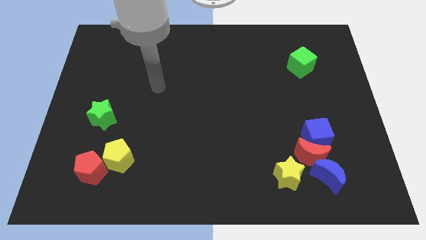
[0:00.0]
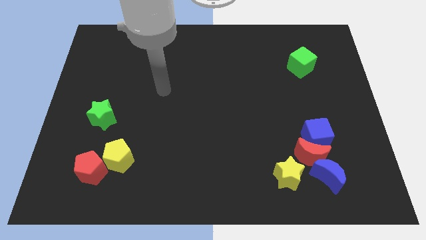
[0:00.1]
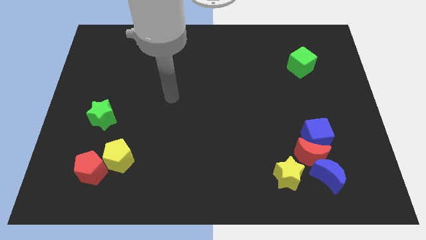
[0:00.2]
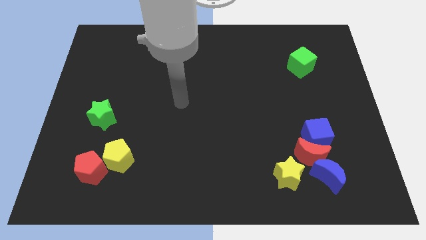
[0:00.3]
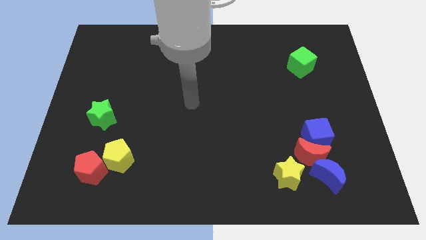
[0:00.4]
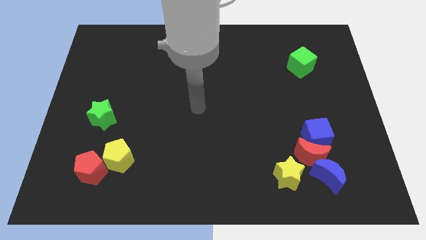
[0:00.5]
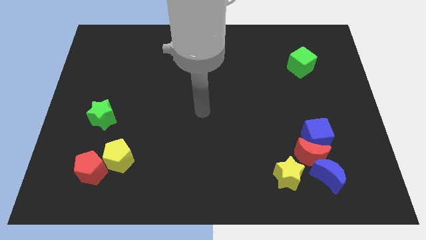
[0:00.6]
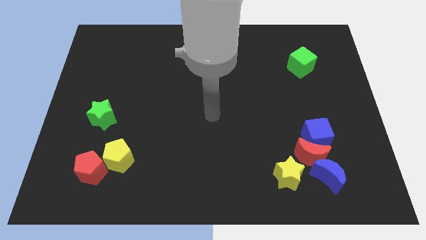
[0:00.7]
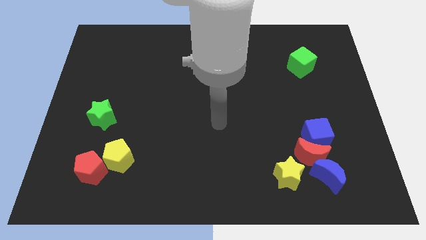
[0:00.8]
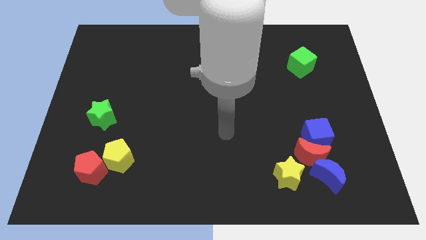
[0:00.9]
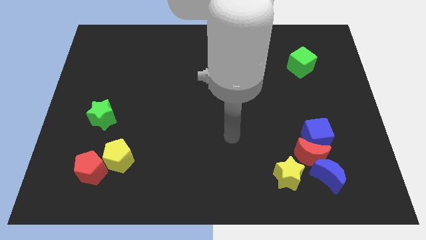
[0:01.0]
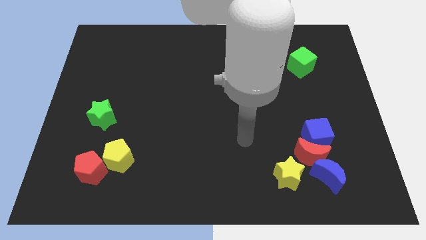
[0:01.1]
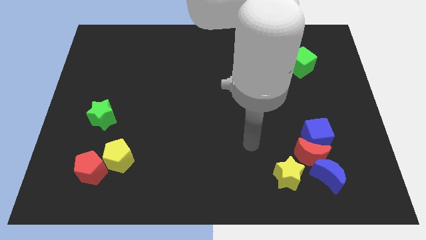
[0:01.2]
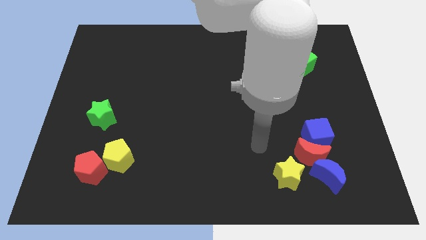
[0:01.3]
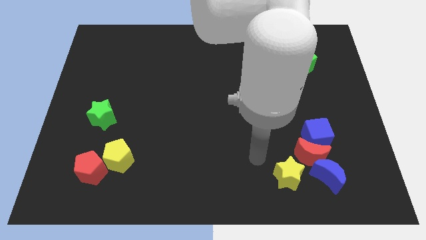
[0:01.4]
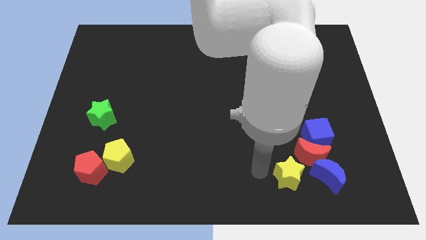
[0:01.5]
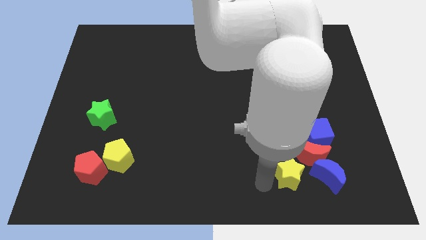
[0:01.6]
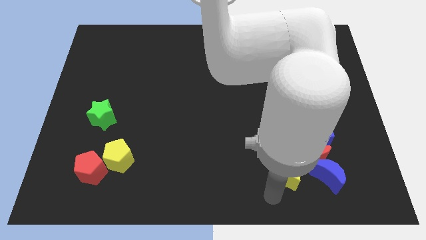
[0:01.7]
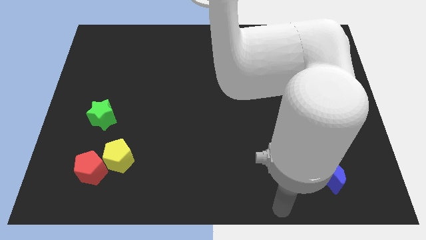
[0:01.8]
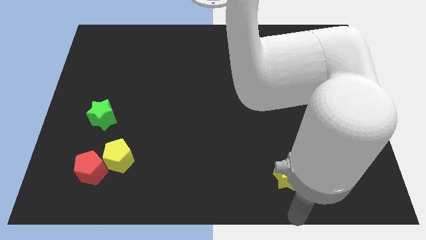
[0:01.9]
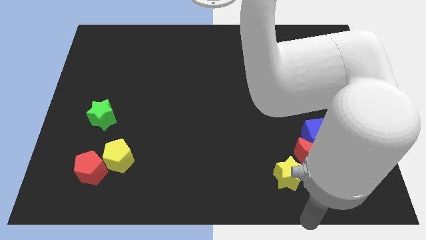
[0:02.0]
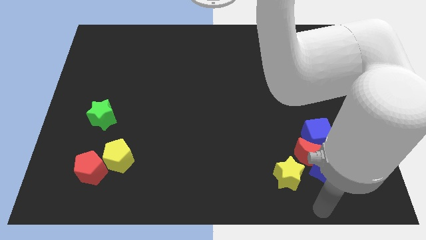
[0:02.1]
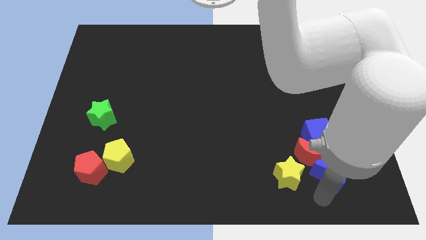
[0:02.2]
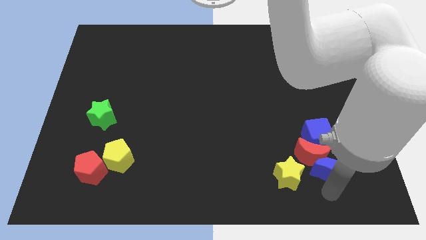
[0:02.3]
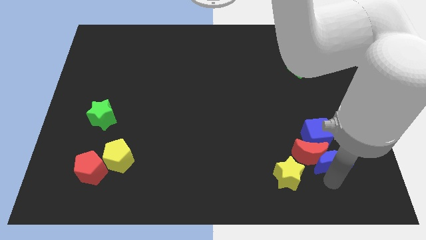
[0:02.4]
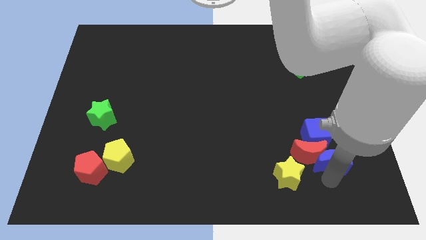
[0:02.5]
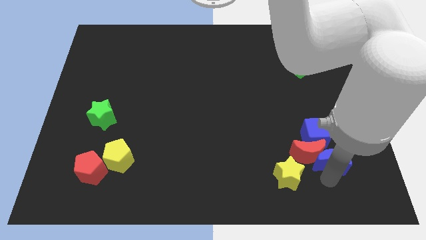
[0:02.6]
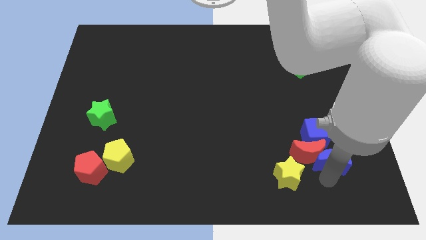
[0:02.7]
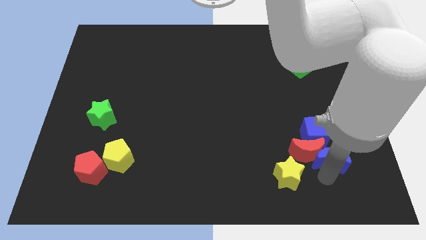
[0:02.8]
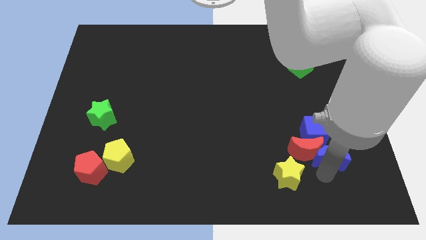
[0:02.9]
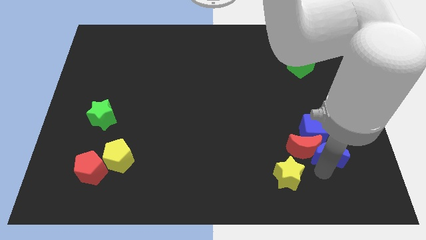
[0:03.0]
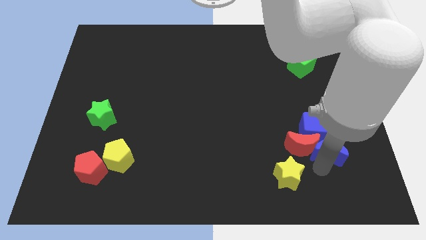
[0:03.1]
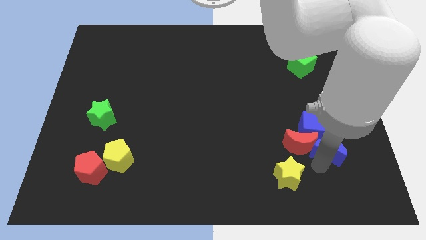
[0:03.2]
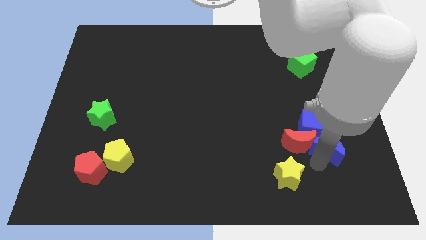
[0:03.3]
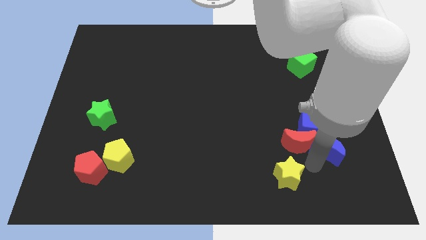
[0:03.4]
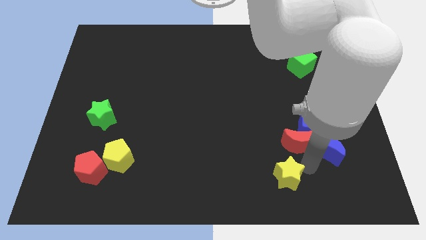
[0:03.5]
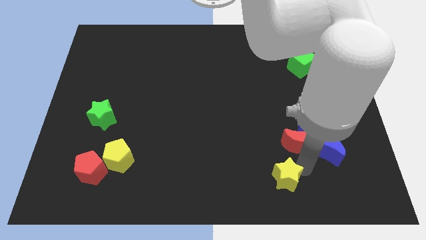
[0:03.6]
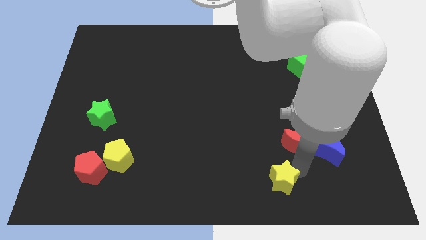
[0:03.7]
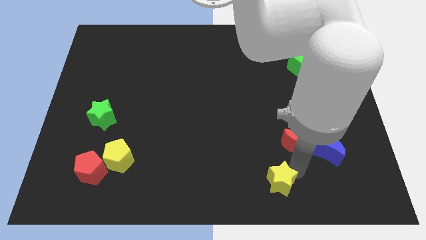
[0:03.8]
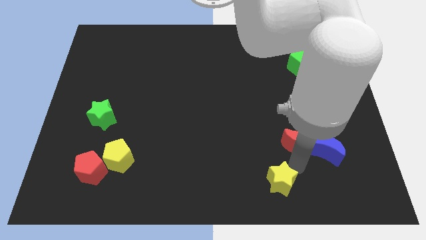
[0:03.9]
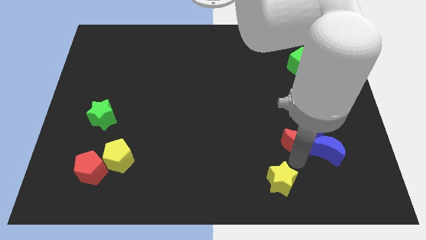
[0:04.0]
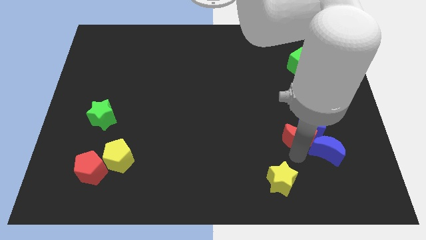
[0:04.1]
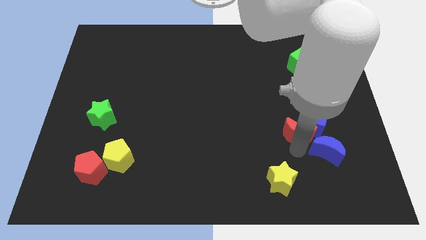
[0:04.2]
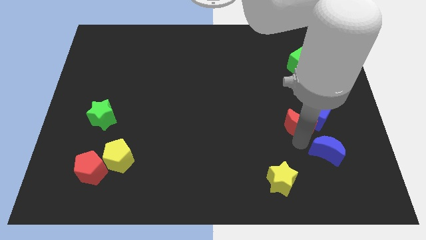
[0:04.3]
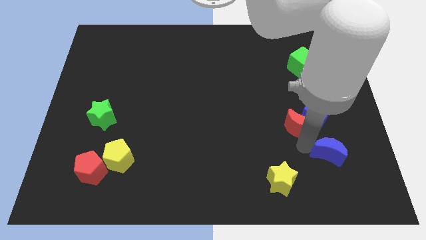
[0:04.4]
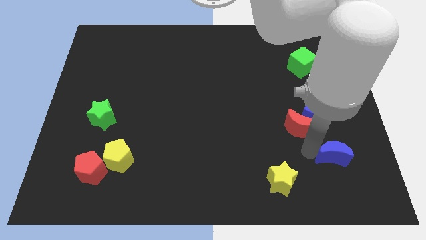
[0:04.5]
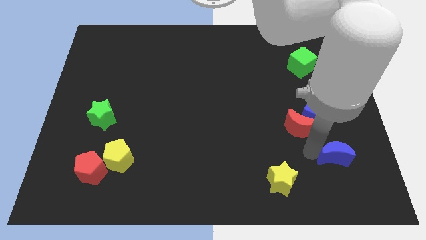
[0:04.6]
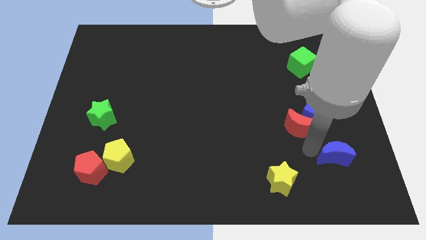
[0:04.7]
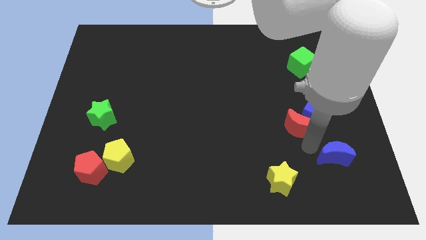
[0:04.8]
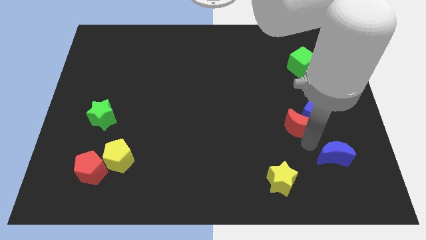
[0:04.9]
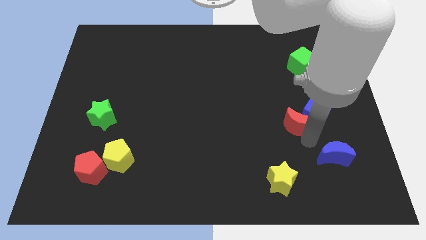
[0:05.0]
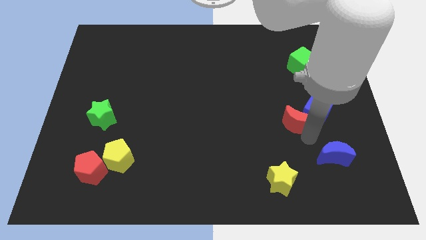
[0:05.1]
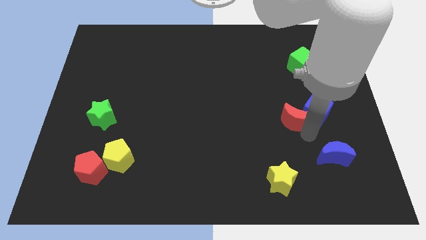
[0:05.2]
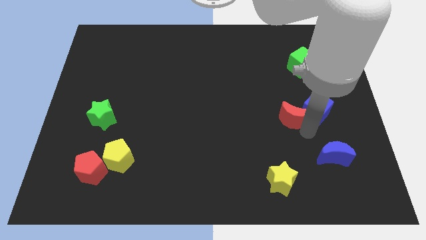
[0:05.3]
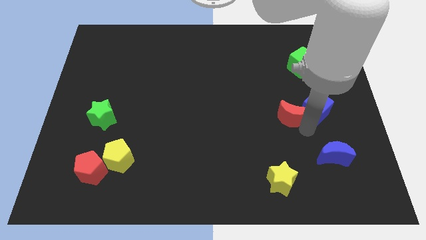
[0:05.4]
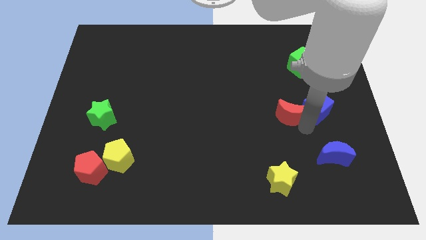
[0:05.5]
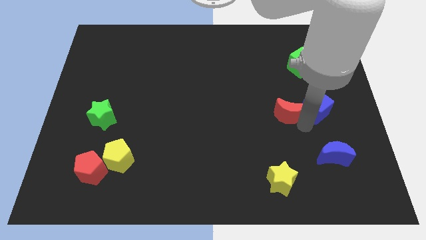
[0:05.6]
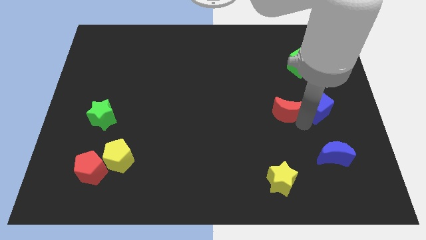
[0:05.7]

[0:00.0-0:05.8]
separate the red moon from the blue cube, blue moon, and yellow star

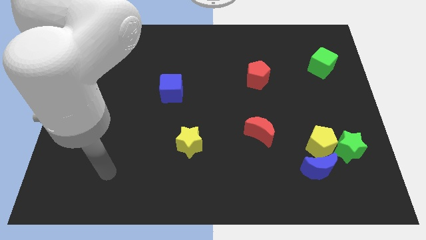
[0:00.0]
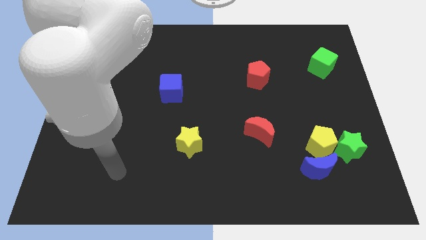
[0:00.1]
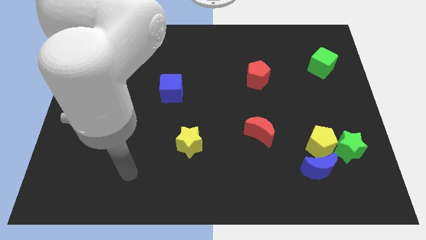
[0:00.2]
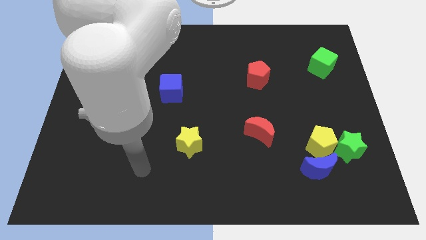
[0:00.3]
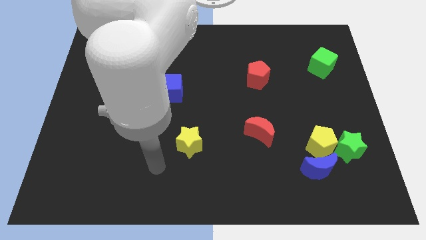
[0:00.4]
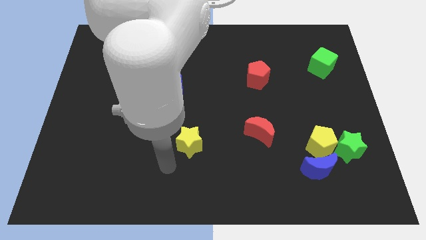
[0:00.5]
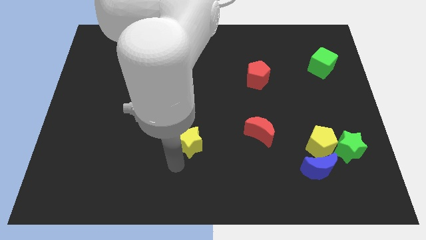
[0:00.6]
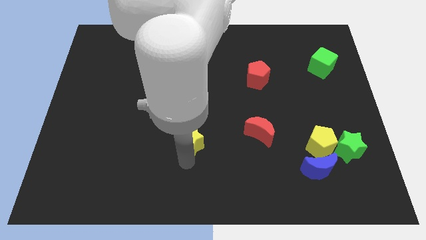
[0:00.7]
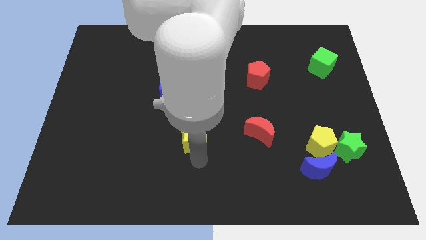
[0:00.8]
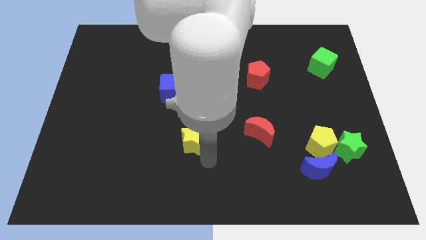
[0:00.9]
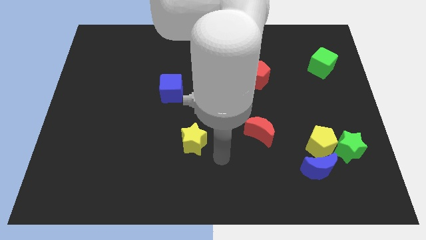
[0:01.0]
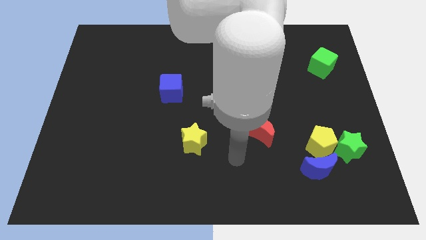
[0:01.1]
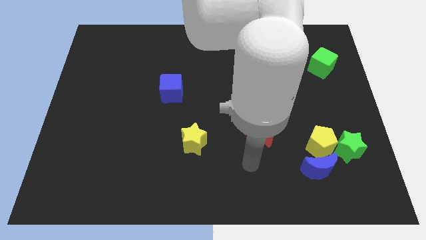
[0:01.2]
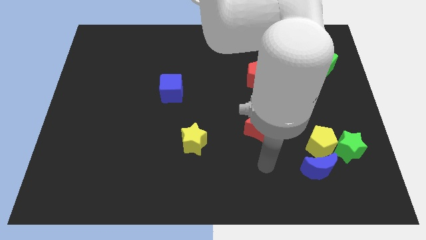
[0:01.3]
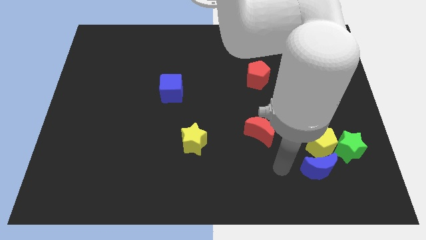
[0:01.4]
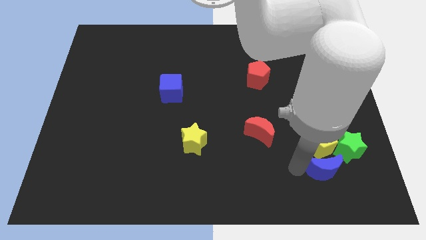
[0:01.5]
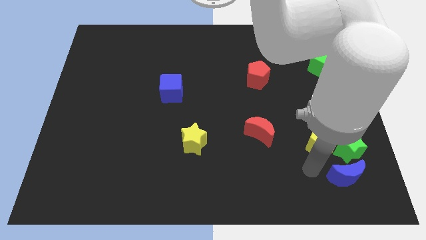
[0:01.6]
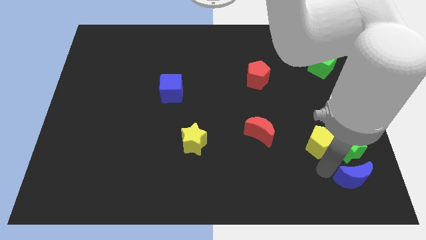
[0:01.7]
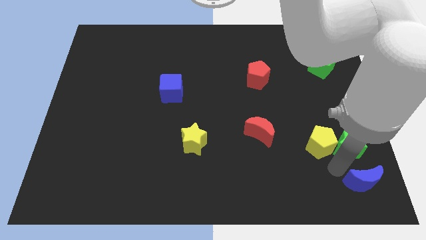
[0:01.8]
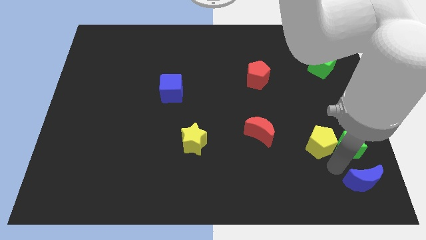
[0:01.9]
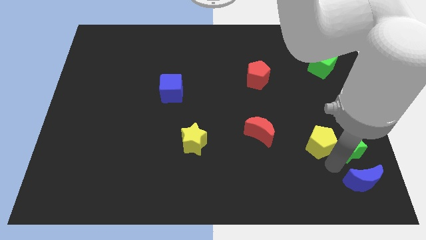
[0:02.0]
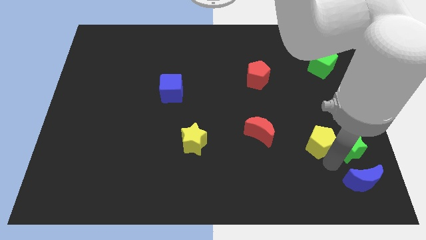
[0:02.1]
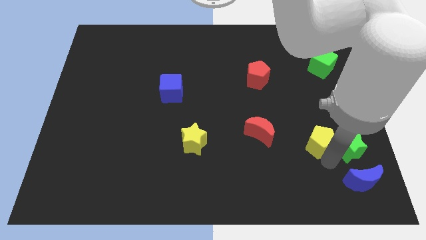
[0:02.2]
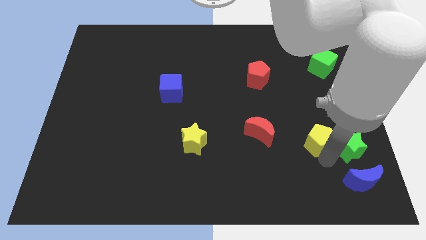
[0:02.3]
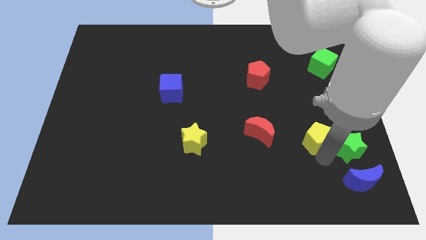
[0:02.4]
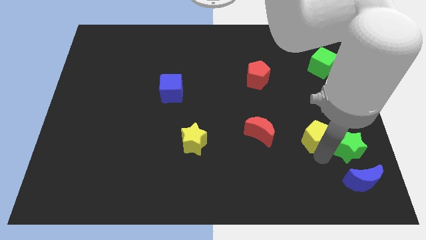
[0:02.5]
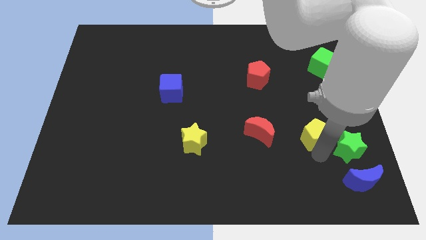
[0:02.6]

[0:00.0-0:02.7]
move the yellow pentagon away from the green star and blue moon

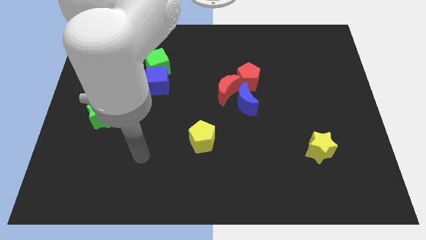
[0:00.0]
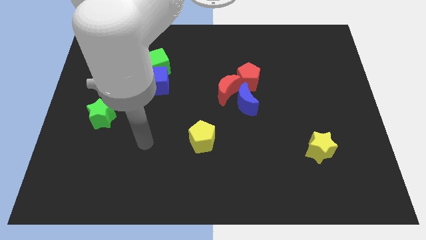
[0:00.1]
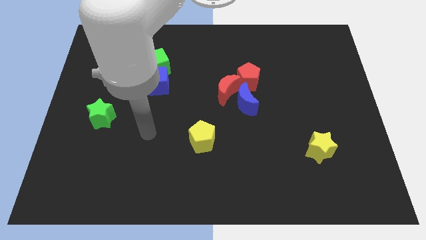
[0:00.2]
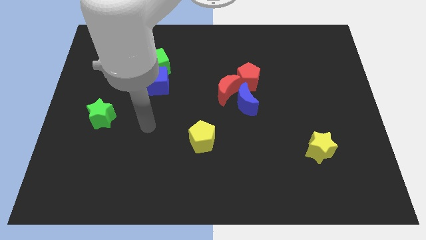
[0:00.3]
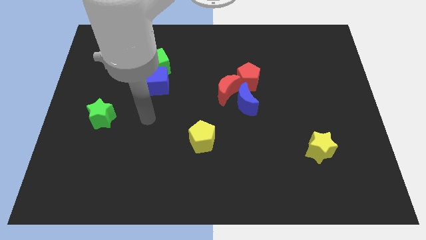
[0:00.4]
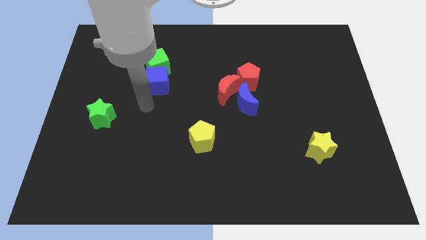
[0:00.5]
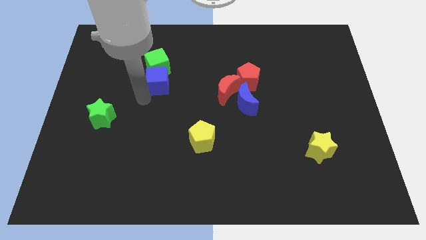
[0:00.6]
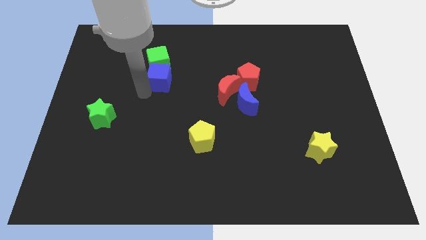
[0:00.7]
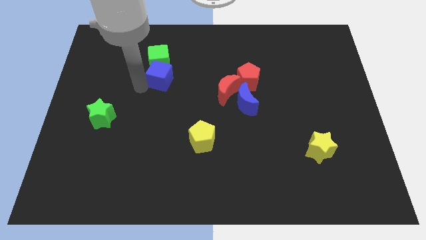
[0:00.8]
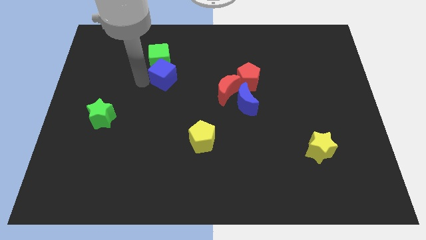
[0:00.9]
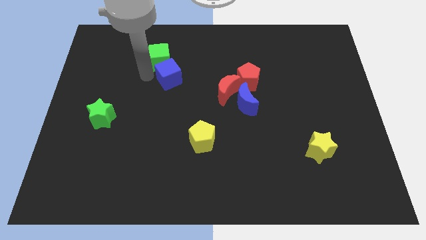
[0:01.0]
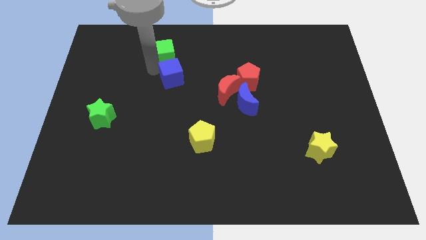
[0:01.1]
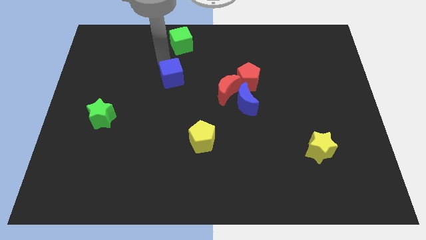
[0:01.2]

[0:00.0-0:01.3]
separate the blue cube from the green cube
